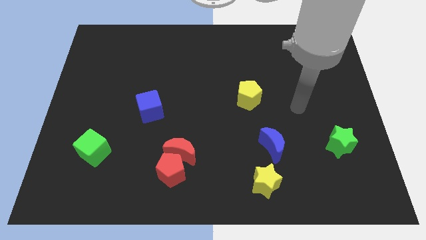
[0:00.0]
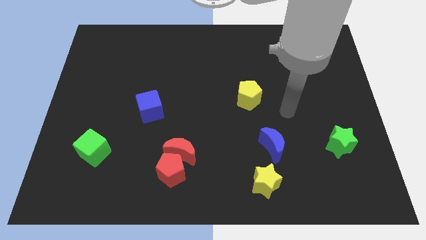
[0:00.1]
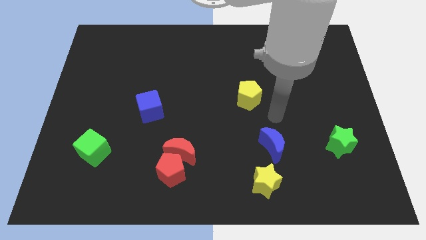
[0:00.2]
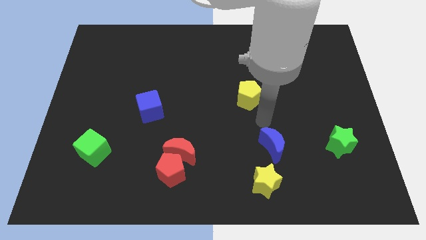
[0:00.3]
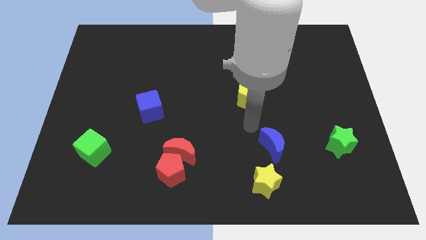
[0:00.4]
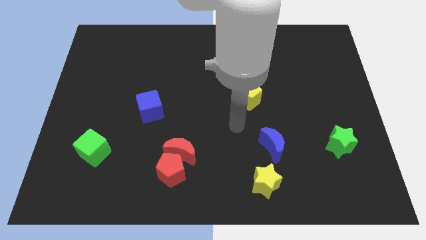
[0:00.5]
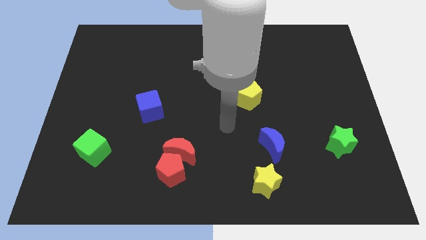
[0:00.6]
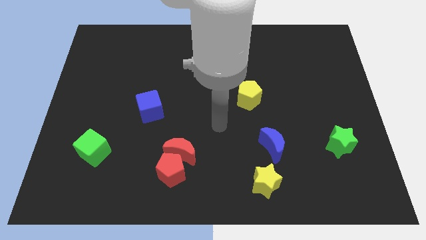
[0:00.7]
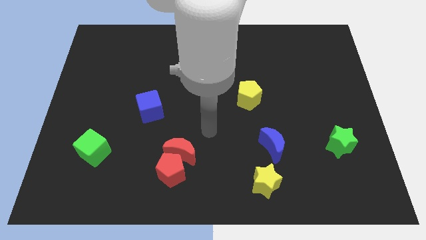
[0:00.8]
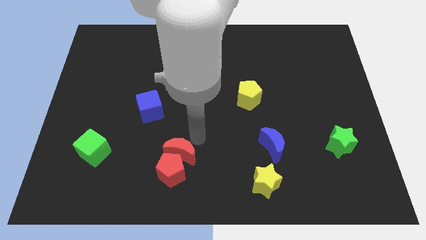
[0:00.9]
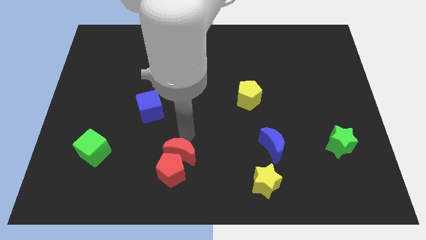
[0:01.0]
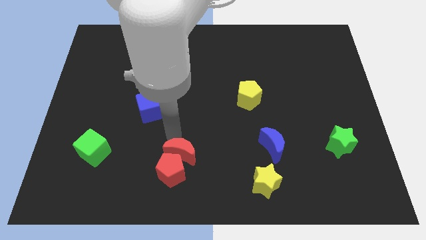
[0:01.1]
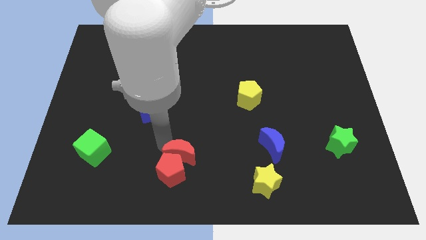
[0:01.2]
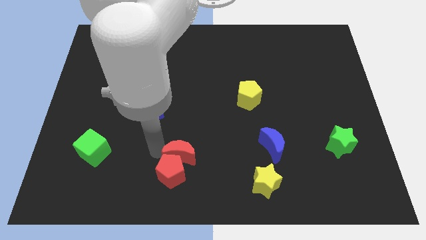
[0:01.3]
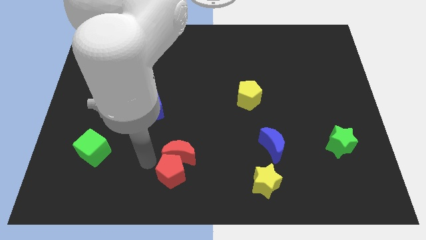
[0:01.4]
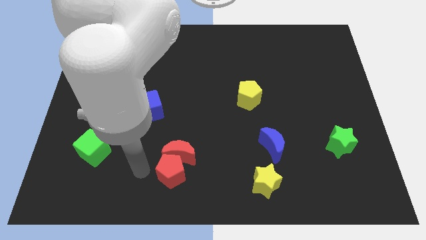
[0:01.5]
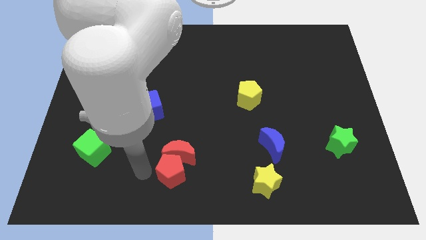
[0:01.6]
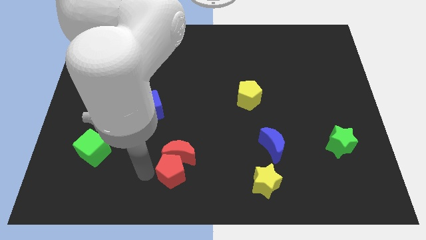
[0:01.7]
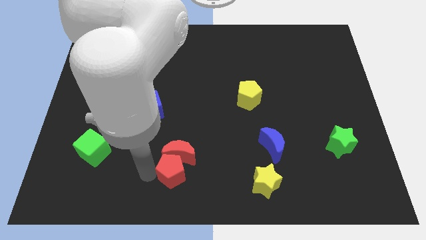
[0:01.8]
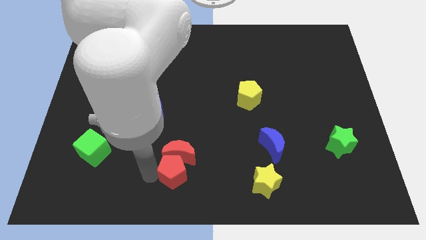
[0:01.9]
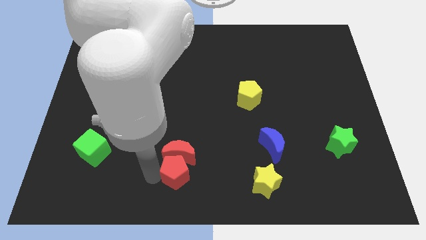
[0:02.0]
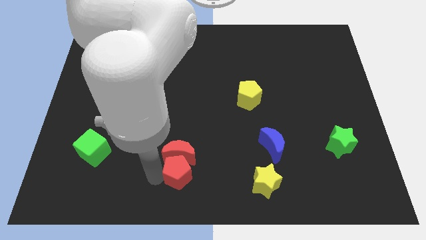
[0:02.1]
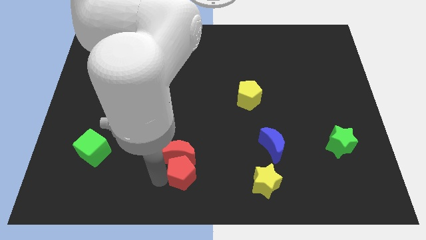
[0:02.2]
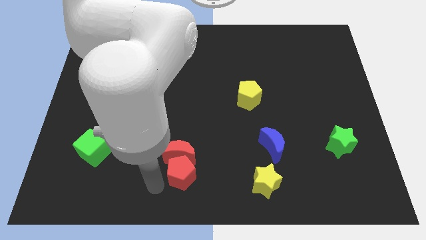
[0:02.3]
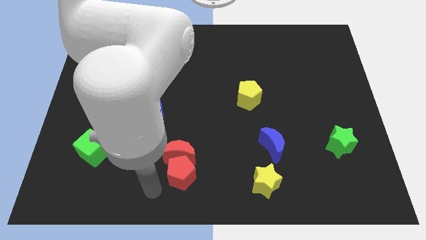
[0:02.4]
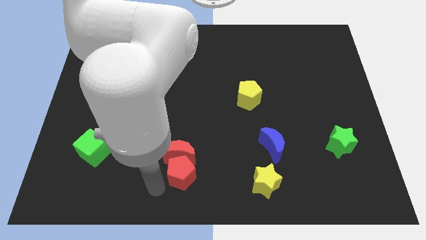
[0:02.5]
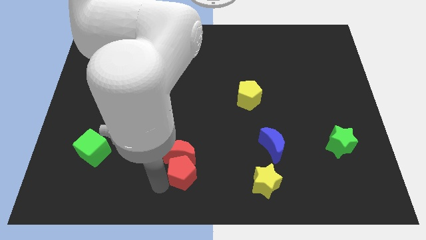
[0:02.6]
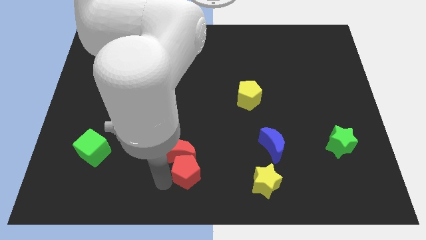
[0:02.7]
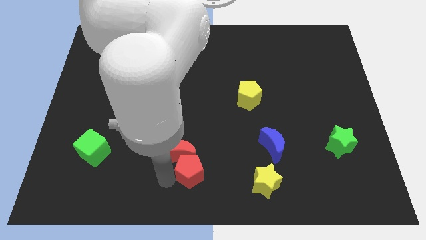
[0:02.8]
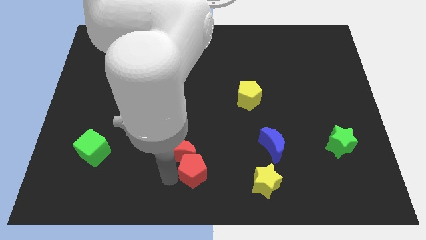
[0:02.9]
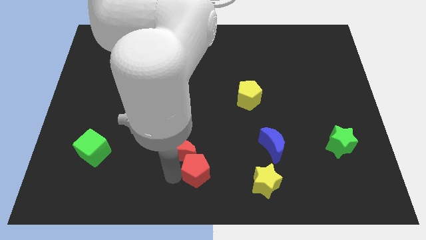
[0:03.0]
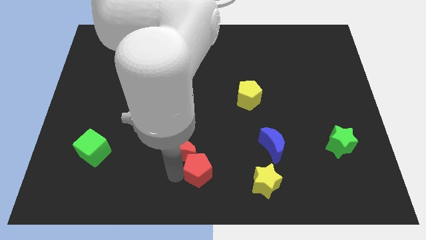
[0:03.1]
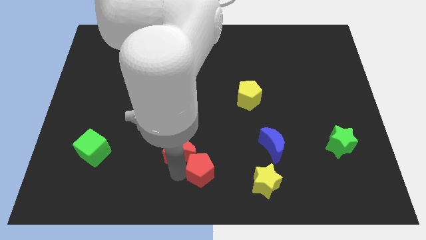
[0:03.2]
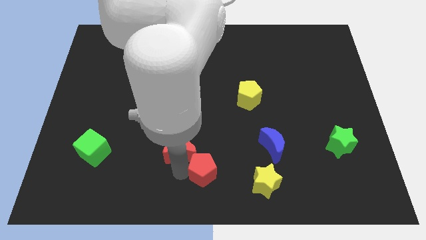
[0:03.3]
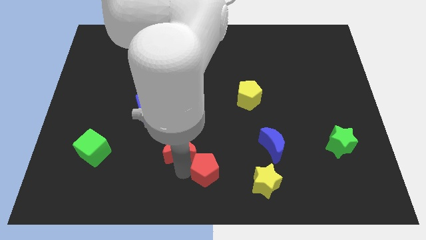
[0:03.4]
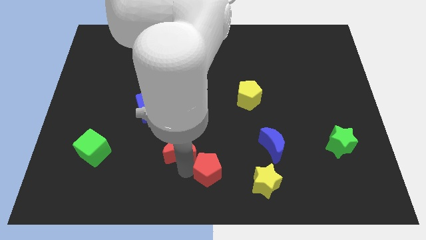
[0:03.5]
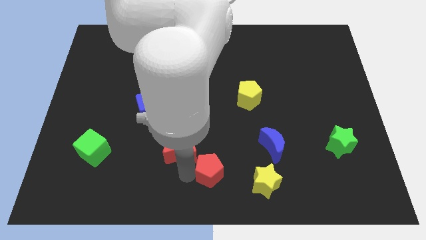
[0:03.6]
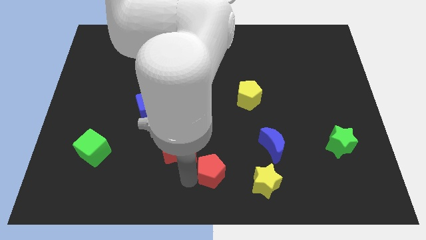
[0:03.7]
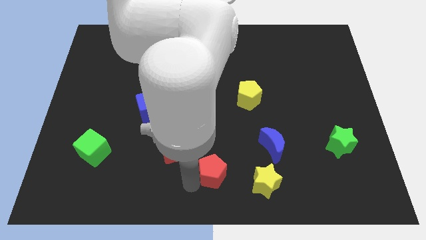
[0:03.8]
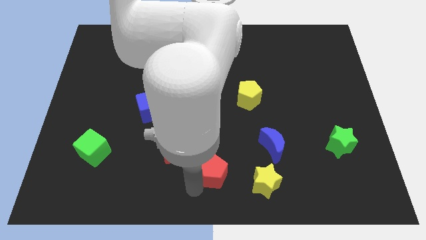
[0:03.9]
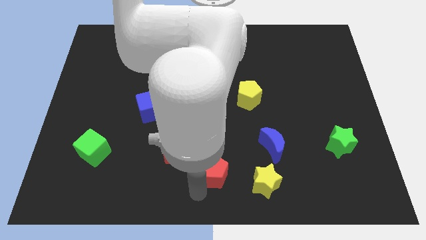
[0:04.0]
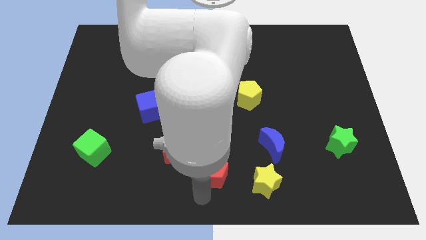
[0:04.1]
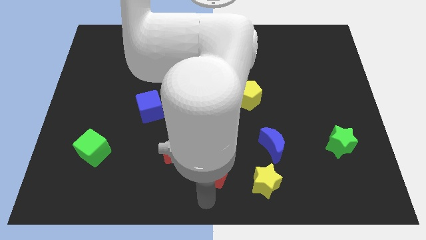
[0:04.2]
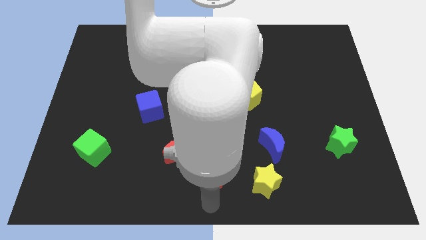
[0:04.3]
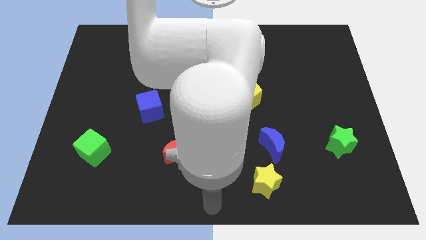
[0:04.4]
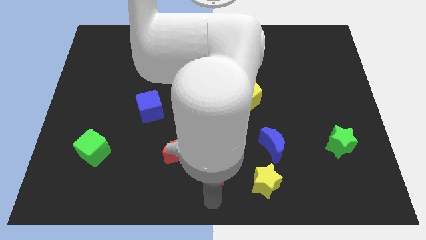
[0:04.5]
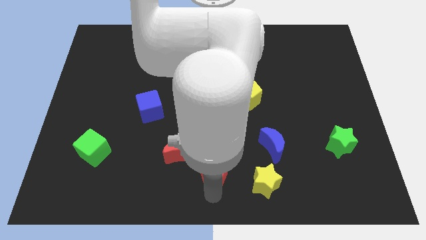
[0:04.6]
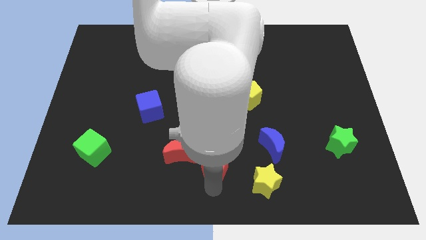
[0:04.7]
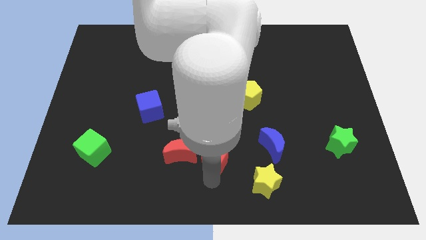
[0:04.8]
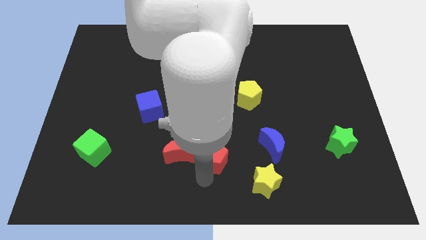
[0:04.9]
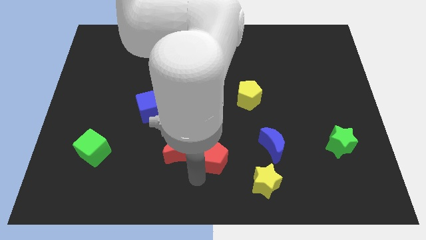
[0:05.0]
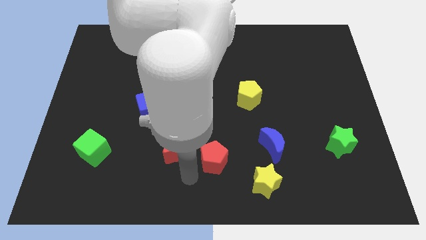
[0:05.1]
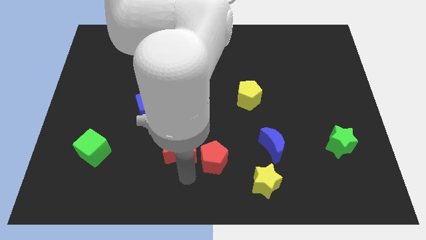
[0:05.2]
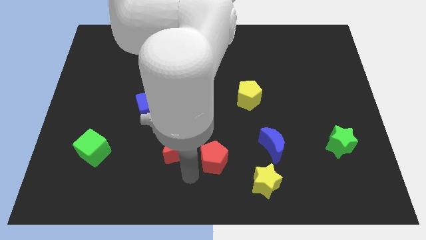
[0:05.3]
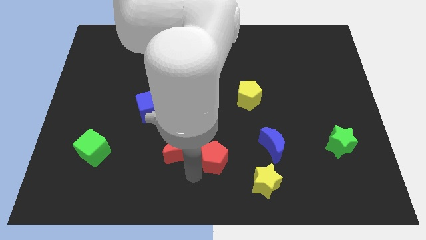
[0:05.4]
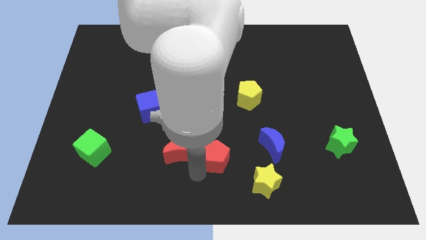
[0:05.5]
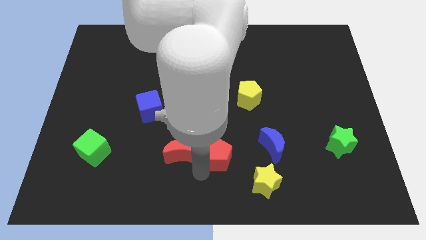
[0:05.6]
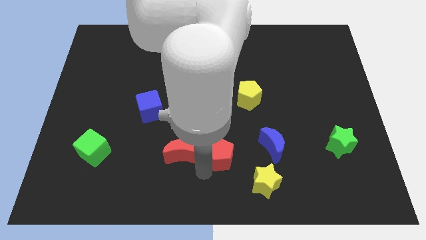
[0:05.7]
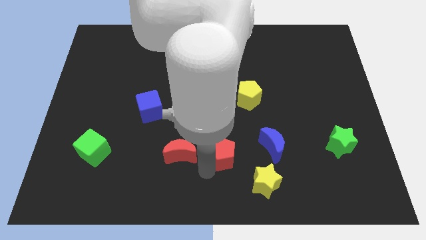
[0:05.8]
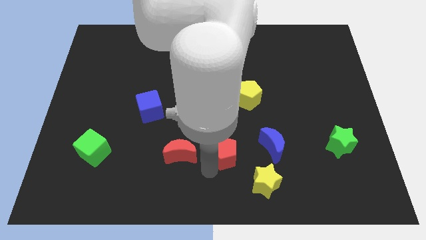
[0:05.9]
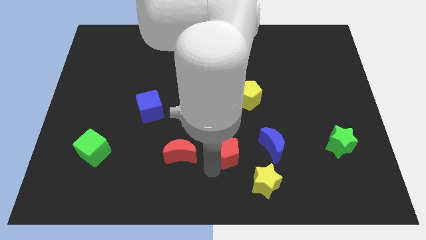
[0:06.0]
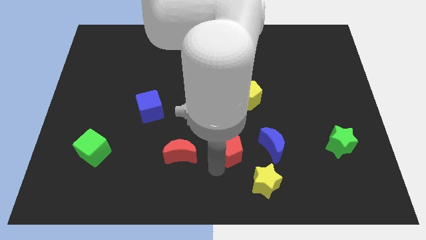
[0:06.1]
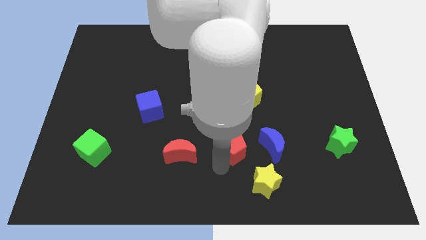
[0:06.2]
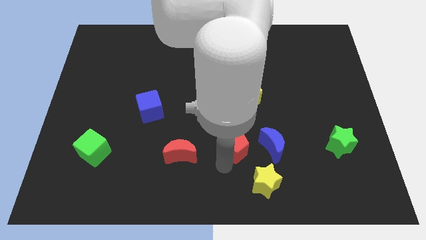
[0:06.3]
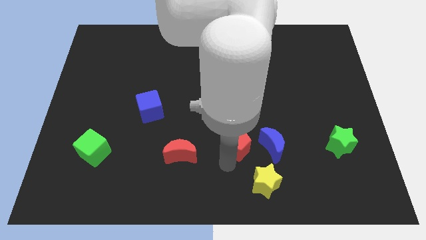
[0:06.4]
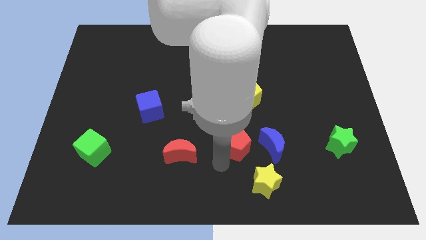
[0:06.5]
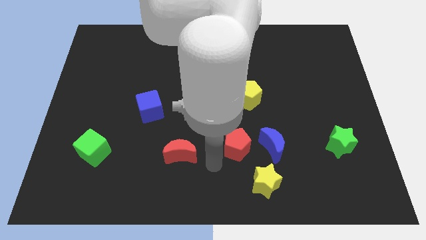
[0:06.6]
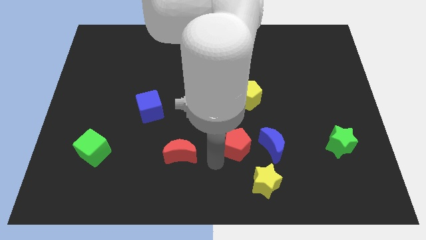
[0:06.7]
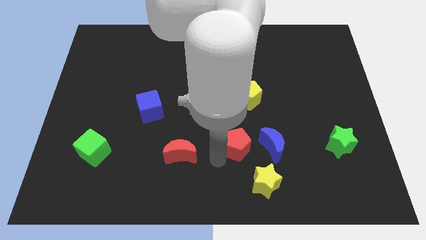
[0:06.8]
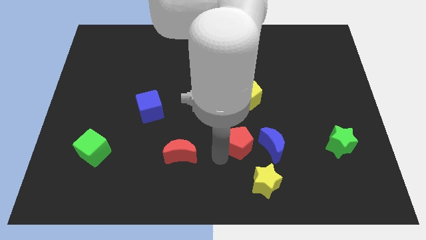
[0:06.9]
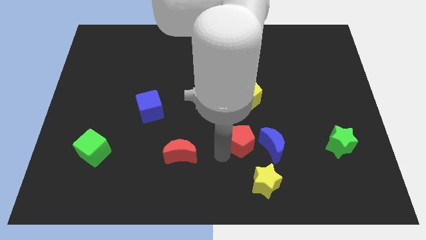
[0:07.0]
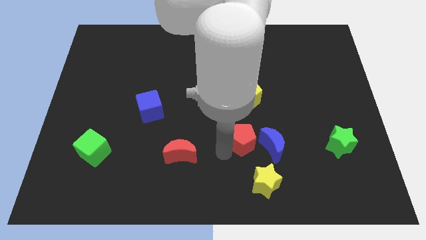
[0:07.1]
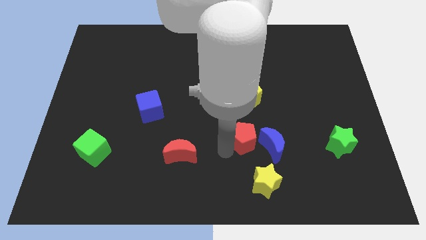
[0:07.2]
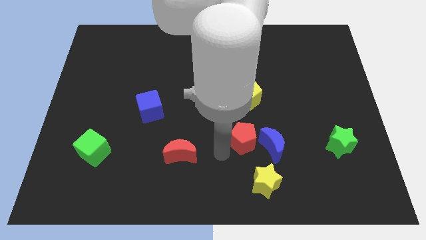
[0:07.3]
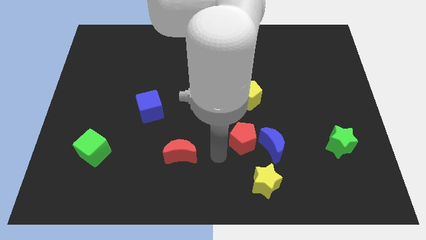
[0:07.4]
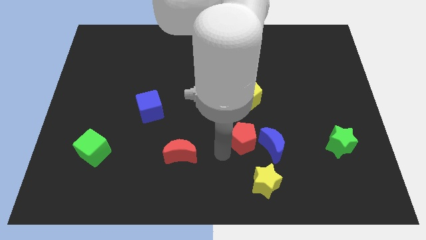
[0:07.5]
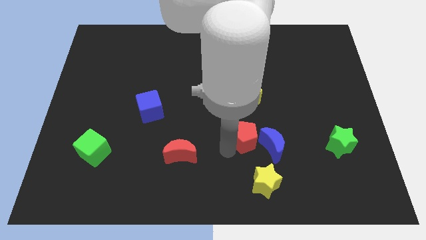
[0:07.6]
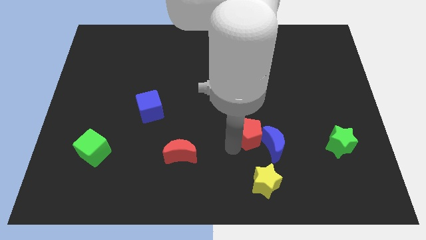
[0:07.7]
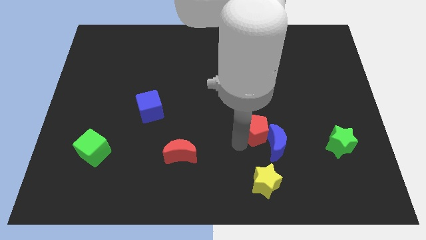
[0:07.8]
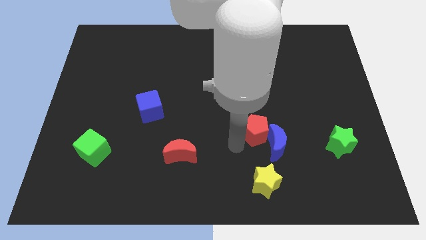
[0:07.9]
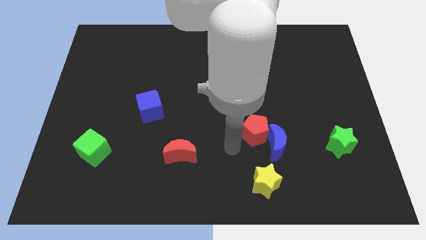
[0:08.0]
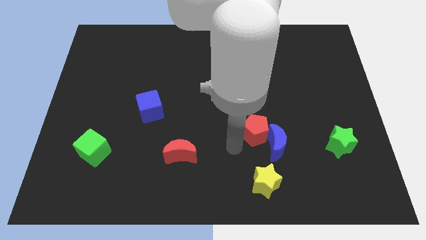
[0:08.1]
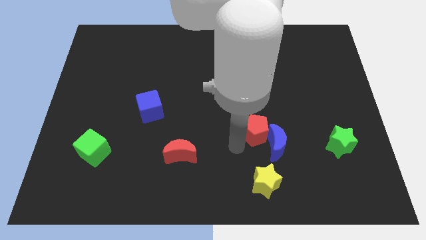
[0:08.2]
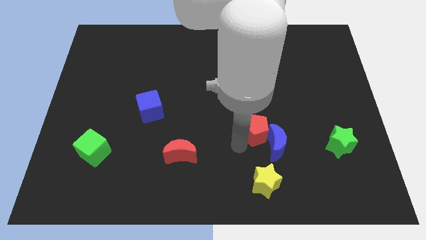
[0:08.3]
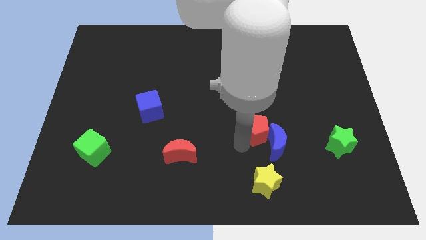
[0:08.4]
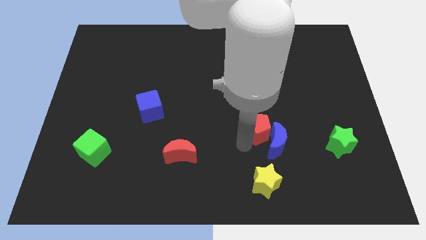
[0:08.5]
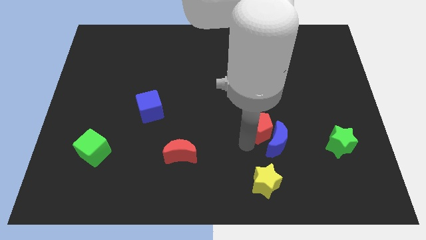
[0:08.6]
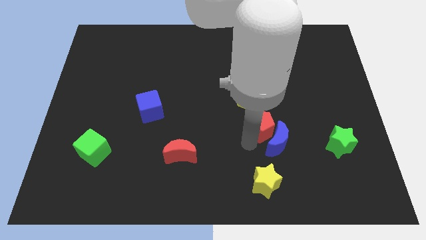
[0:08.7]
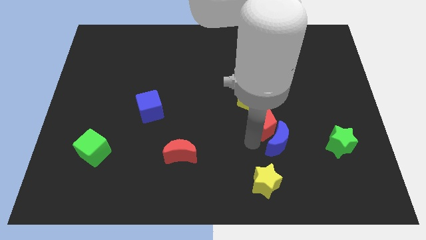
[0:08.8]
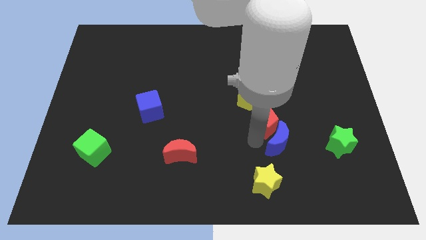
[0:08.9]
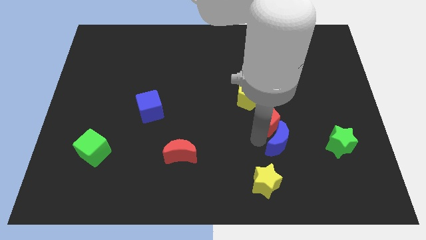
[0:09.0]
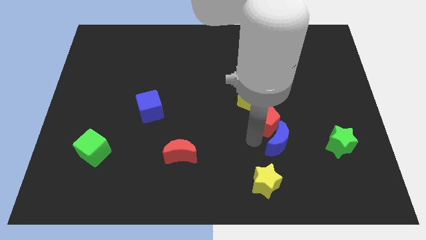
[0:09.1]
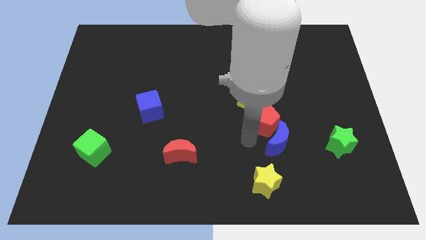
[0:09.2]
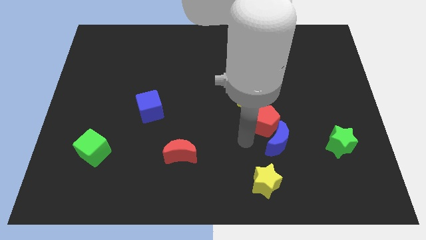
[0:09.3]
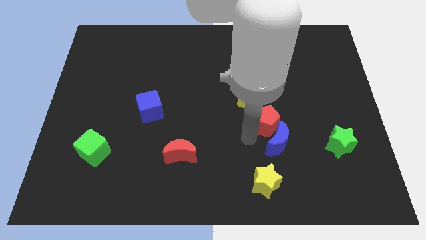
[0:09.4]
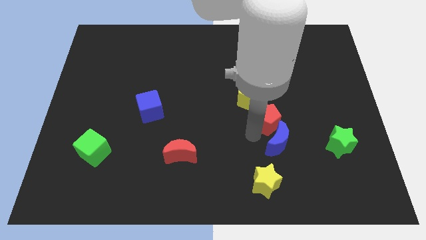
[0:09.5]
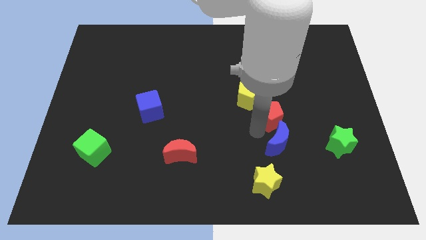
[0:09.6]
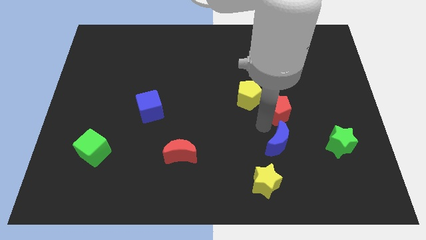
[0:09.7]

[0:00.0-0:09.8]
push the red pentagon to the right side of the yellow pentagon
